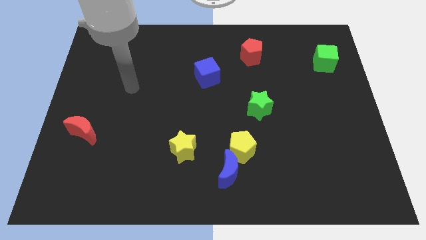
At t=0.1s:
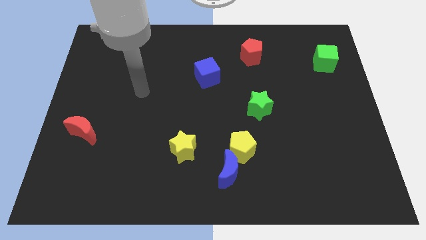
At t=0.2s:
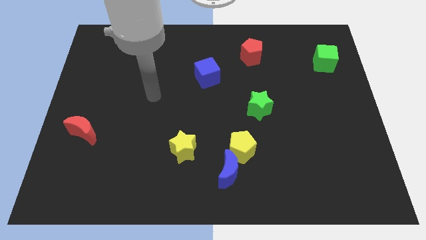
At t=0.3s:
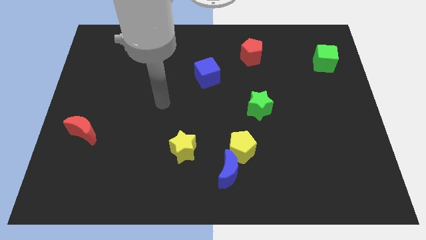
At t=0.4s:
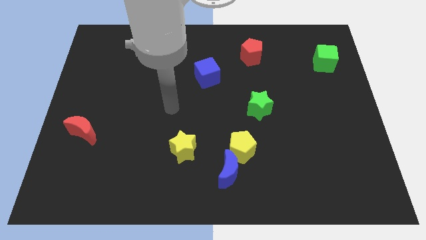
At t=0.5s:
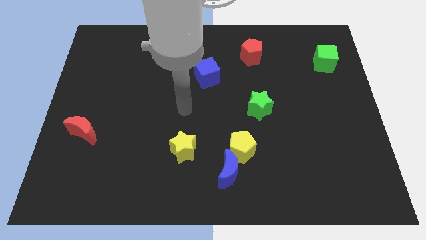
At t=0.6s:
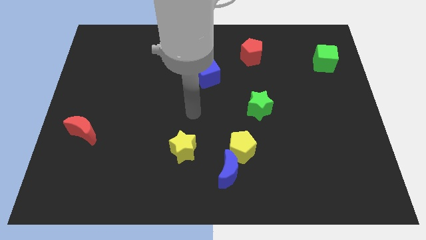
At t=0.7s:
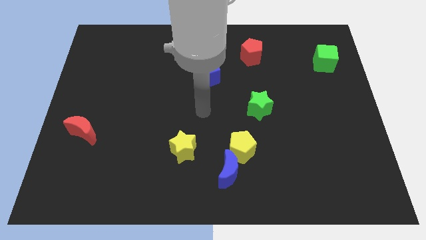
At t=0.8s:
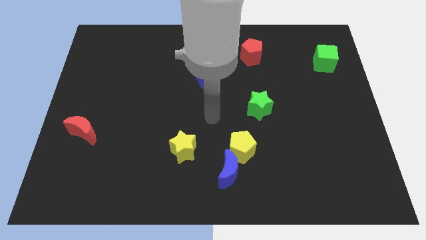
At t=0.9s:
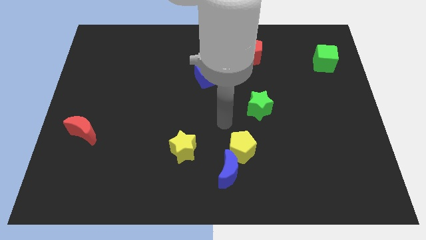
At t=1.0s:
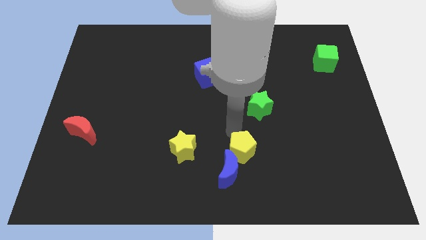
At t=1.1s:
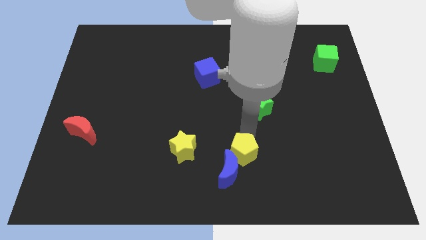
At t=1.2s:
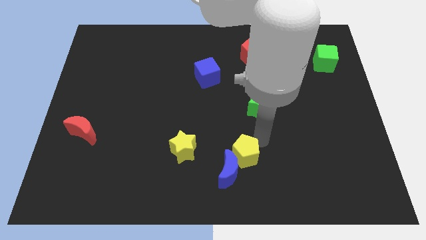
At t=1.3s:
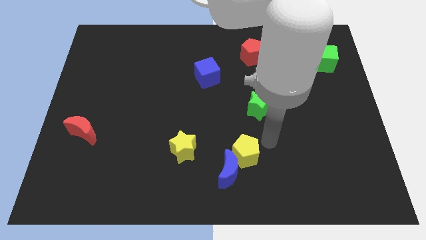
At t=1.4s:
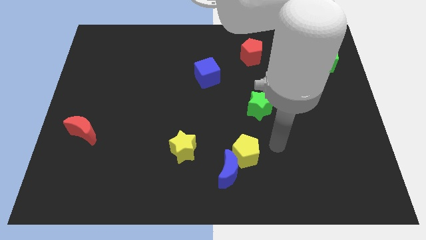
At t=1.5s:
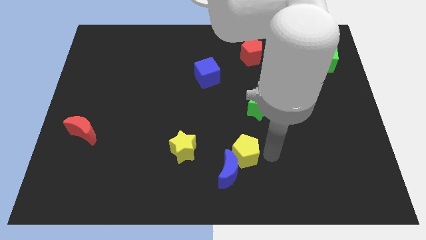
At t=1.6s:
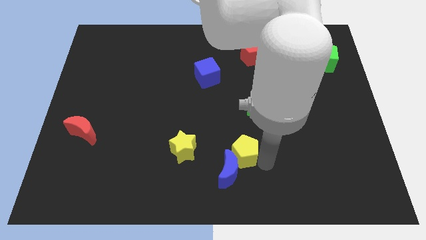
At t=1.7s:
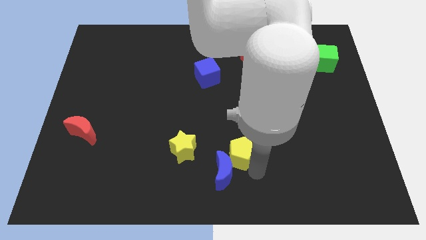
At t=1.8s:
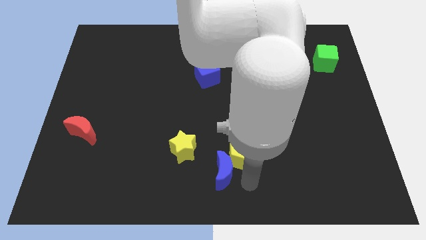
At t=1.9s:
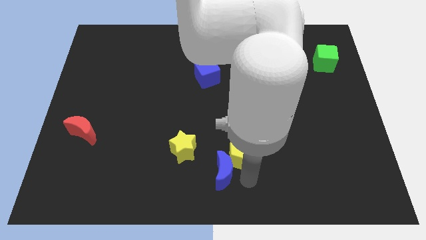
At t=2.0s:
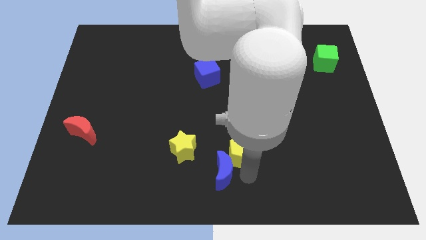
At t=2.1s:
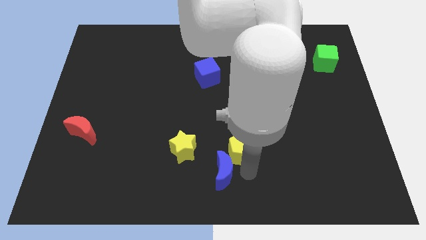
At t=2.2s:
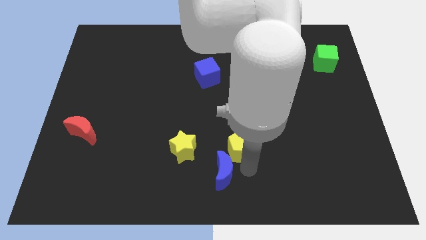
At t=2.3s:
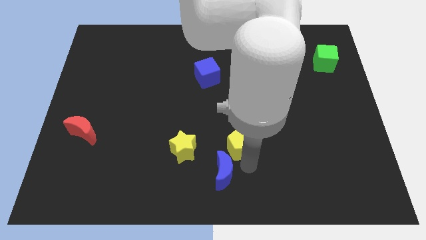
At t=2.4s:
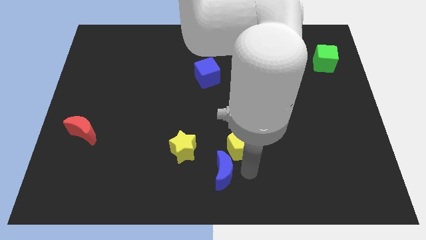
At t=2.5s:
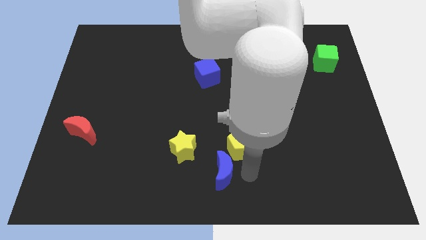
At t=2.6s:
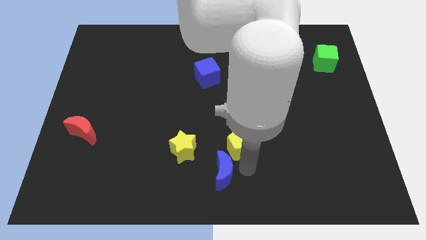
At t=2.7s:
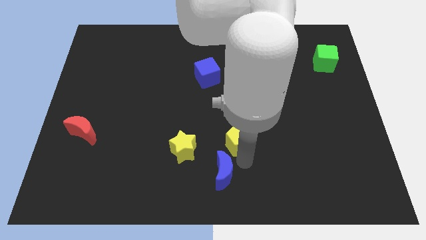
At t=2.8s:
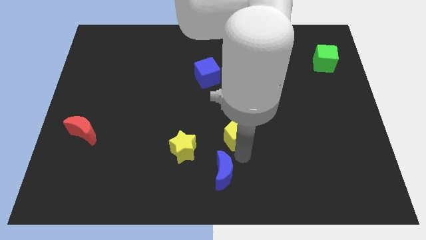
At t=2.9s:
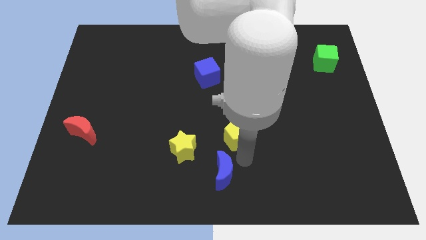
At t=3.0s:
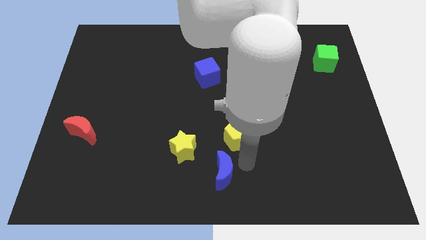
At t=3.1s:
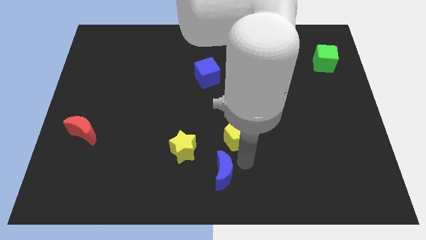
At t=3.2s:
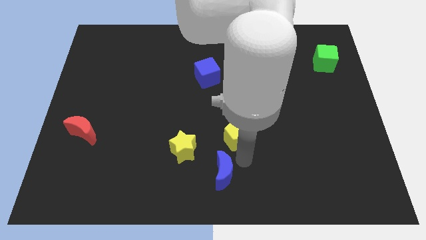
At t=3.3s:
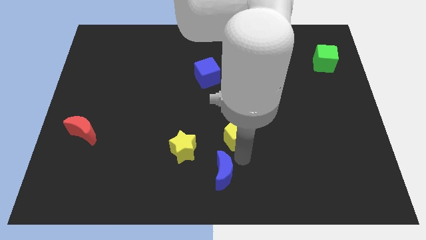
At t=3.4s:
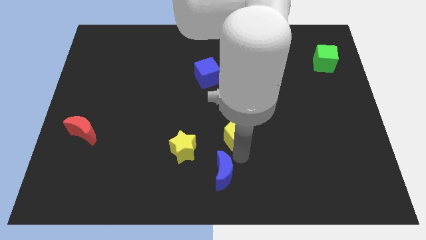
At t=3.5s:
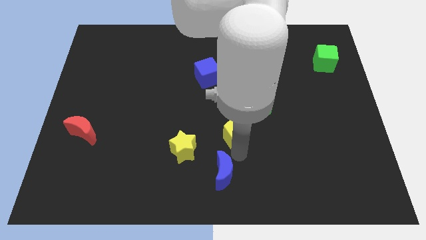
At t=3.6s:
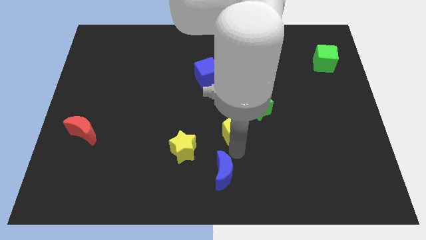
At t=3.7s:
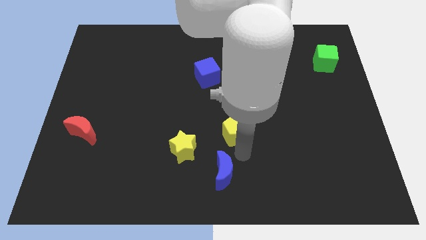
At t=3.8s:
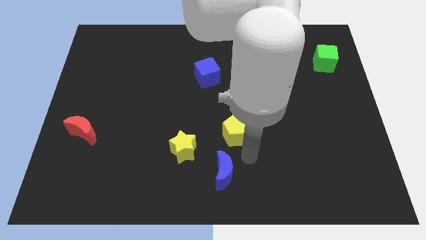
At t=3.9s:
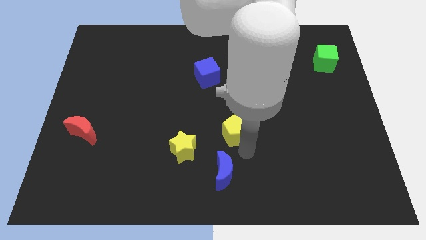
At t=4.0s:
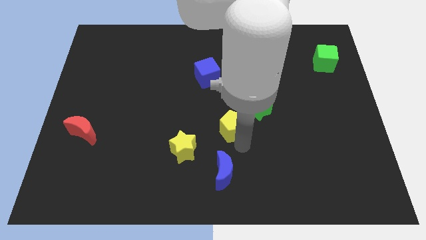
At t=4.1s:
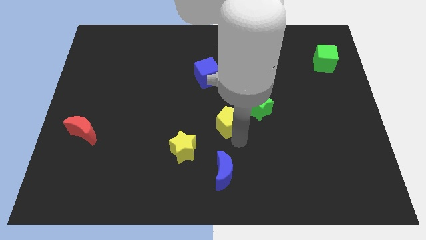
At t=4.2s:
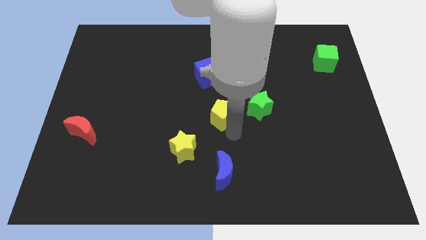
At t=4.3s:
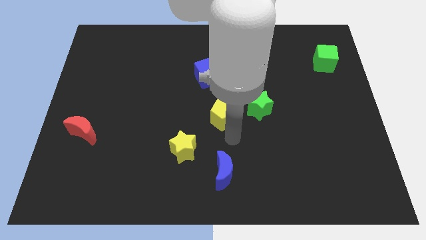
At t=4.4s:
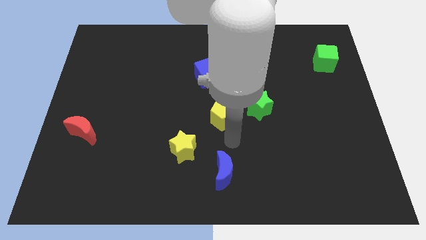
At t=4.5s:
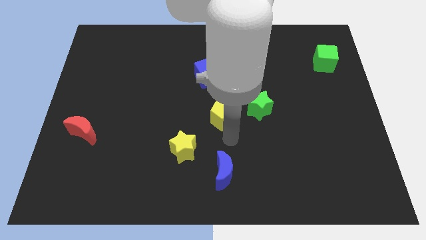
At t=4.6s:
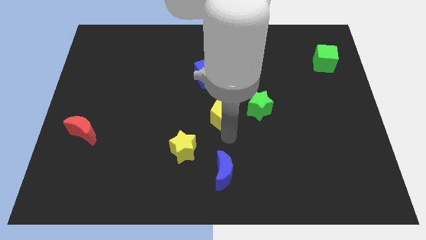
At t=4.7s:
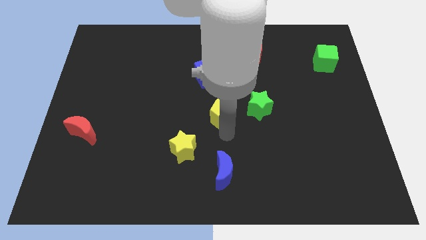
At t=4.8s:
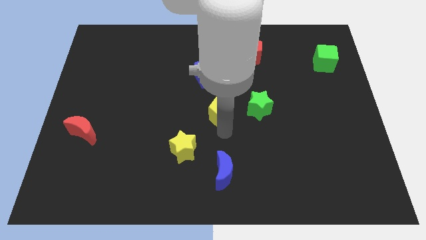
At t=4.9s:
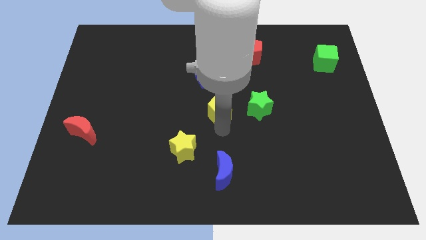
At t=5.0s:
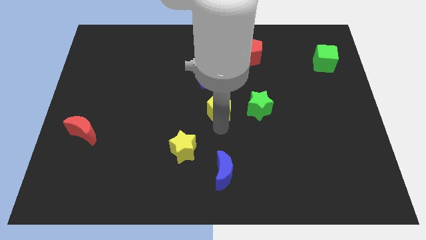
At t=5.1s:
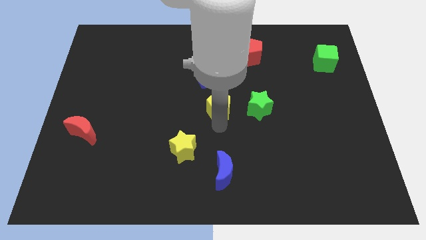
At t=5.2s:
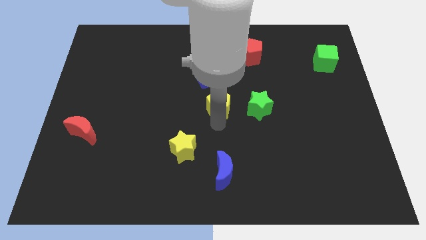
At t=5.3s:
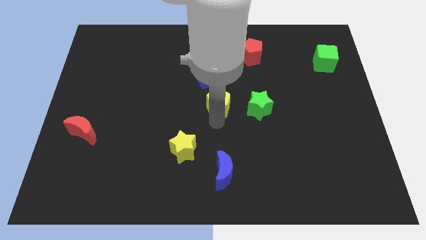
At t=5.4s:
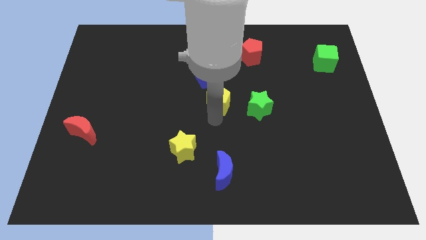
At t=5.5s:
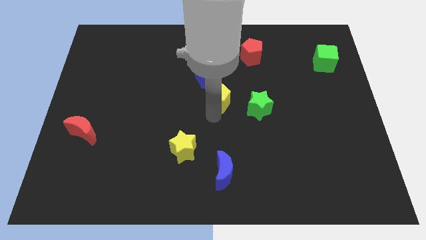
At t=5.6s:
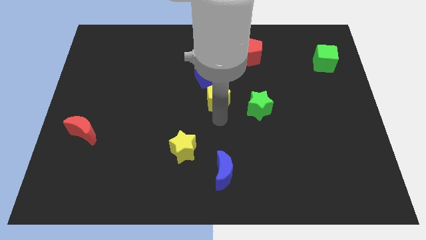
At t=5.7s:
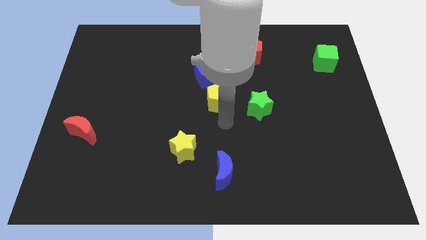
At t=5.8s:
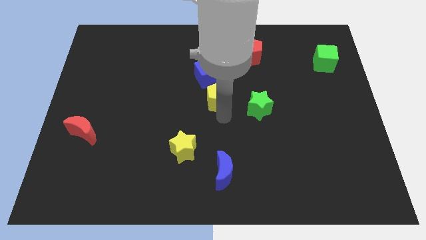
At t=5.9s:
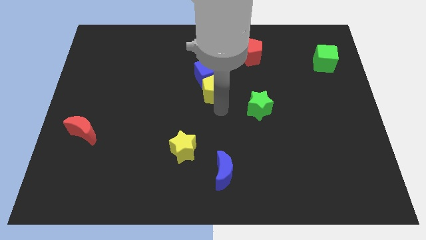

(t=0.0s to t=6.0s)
push the yellow pentagon towards the blue cube

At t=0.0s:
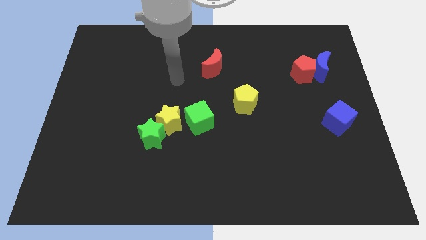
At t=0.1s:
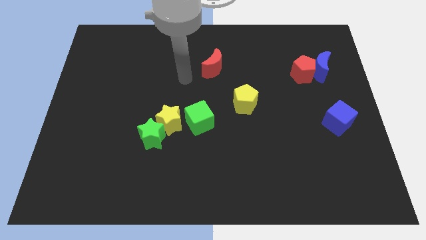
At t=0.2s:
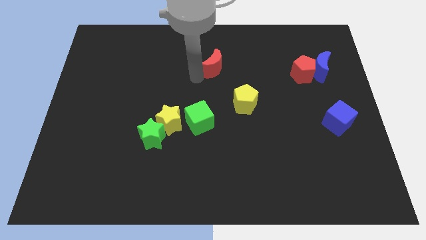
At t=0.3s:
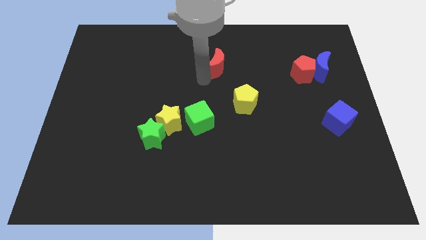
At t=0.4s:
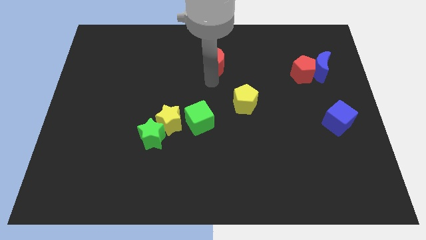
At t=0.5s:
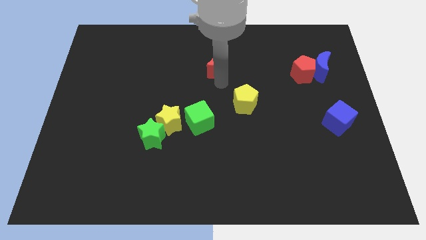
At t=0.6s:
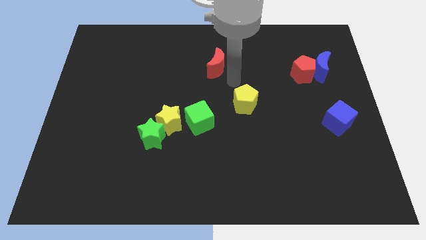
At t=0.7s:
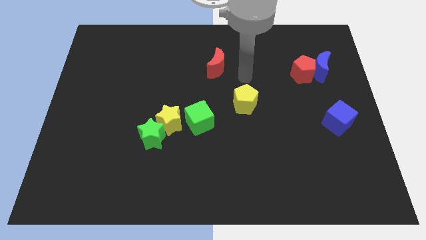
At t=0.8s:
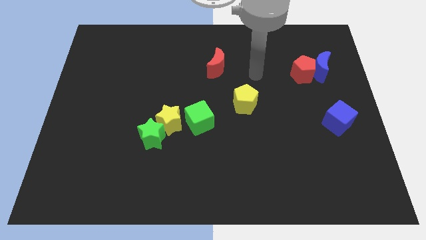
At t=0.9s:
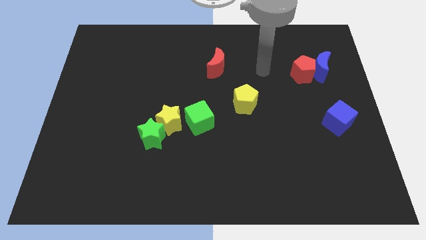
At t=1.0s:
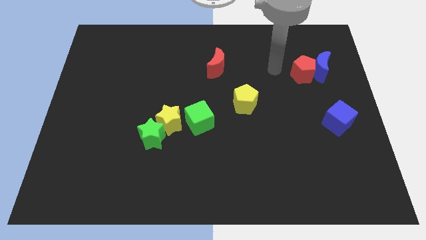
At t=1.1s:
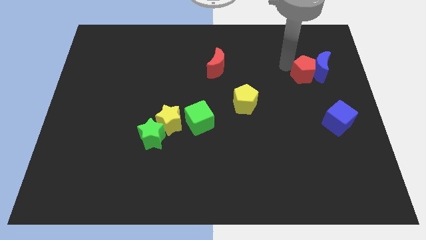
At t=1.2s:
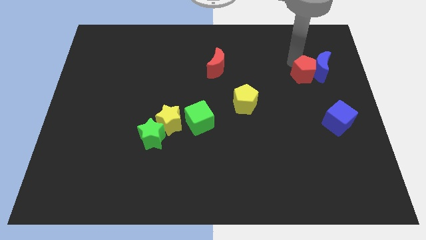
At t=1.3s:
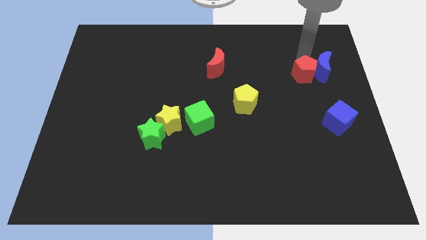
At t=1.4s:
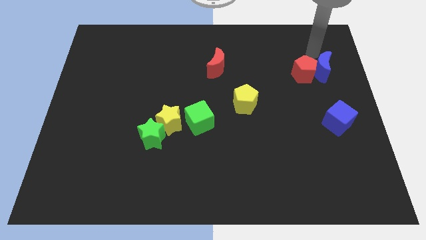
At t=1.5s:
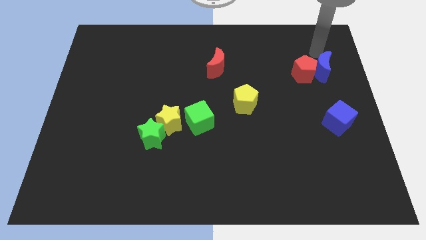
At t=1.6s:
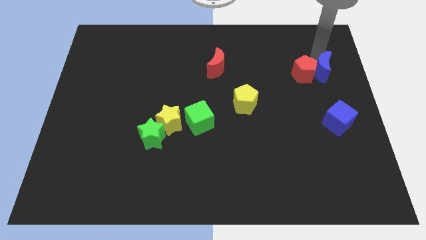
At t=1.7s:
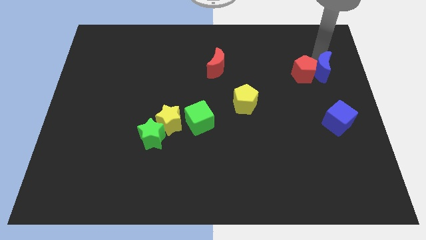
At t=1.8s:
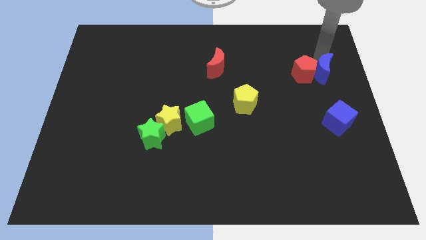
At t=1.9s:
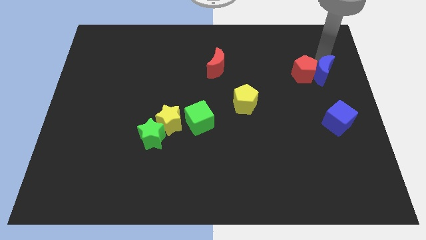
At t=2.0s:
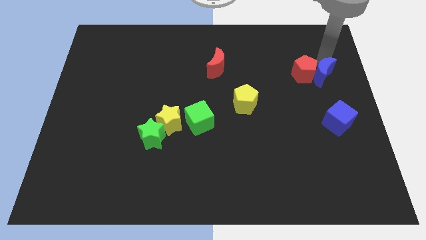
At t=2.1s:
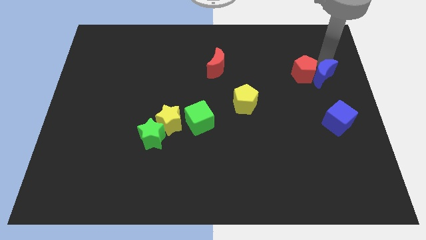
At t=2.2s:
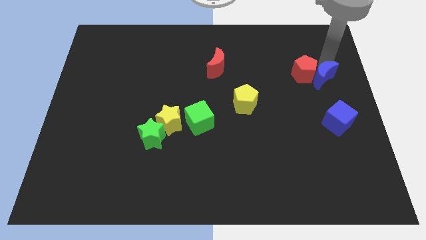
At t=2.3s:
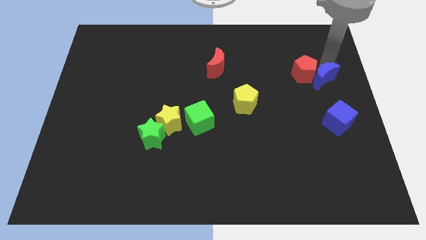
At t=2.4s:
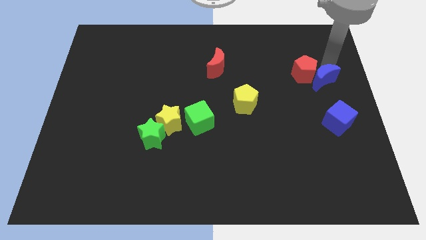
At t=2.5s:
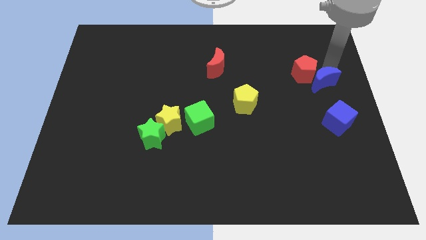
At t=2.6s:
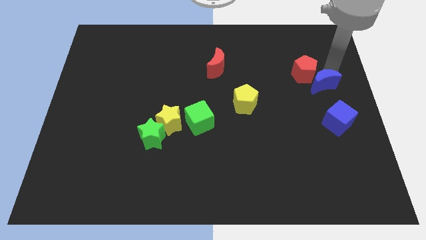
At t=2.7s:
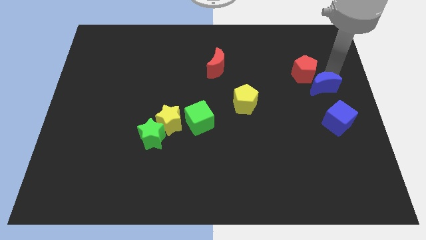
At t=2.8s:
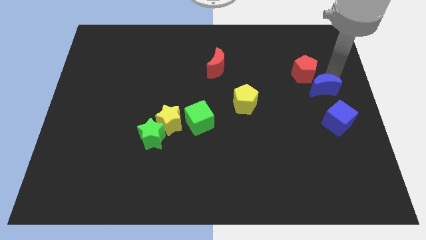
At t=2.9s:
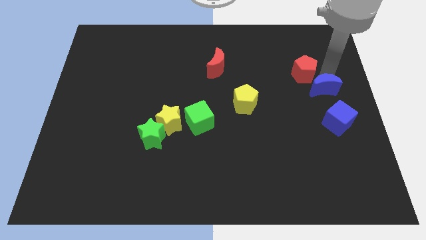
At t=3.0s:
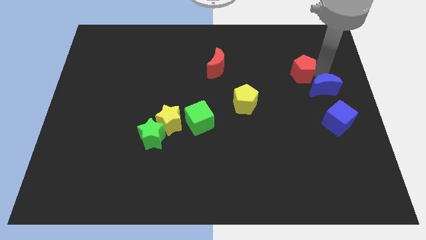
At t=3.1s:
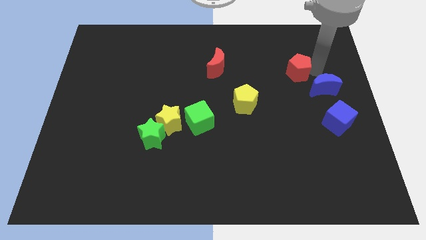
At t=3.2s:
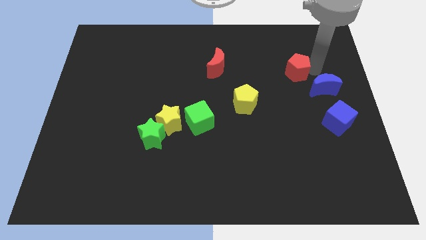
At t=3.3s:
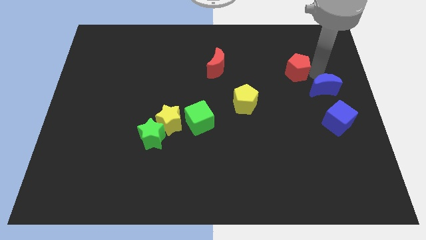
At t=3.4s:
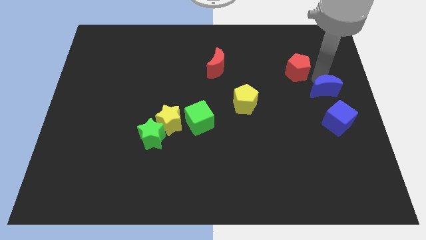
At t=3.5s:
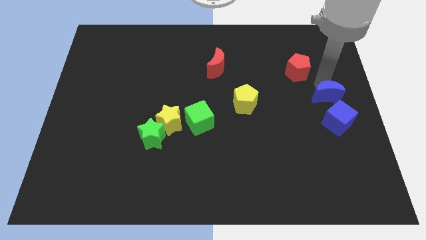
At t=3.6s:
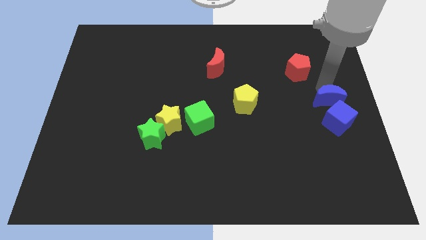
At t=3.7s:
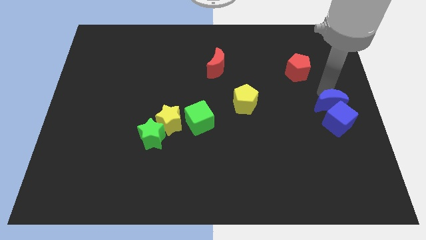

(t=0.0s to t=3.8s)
slide the blue moon to the blue cube
